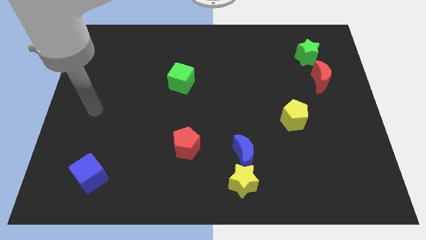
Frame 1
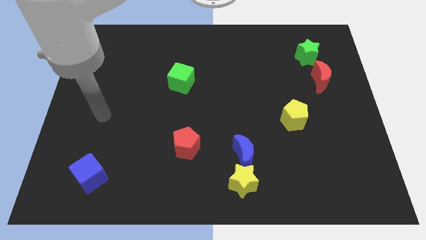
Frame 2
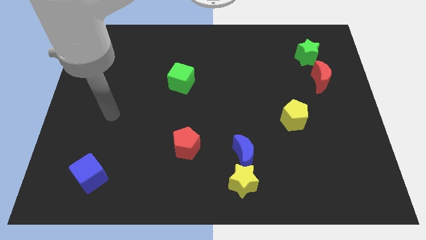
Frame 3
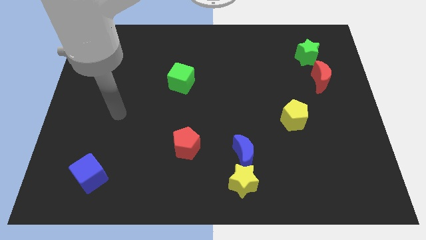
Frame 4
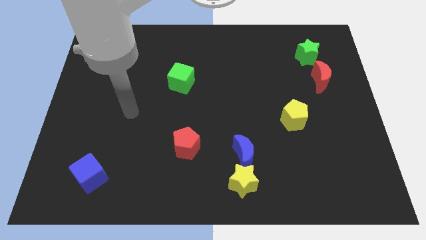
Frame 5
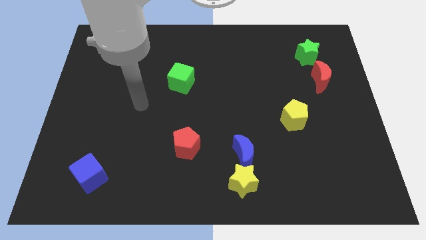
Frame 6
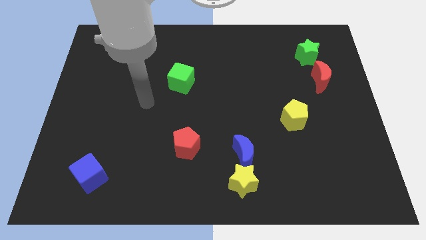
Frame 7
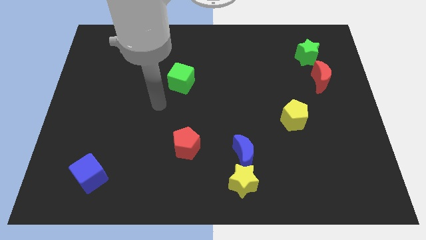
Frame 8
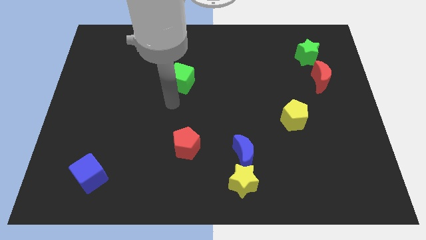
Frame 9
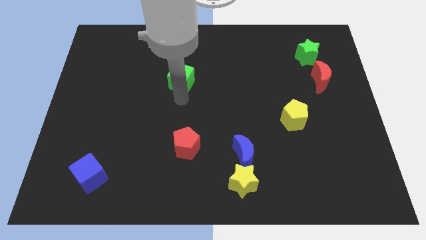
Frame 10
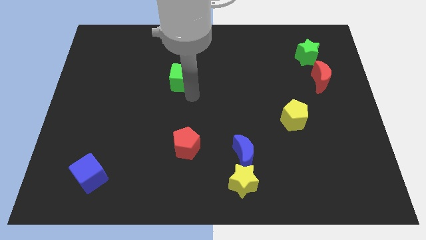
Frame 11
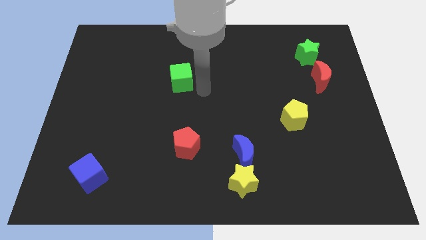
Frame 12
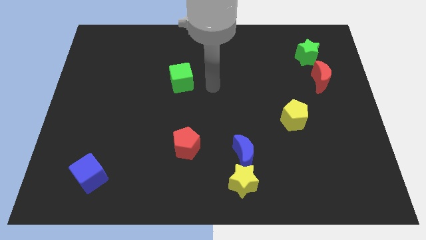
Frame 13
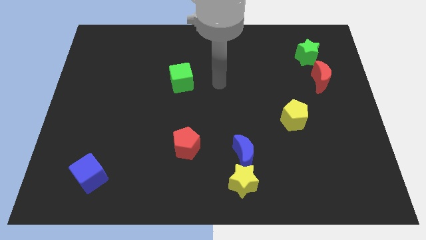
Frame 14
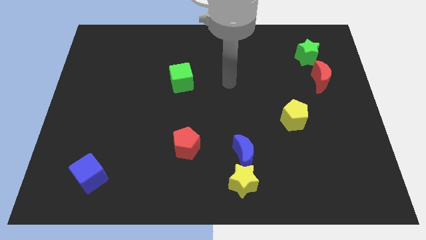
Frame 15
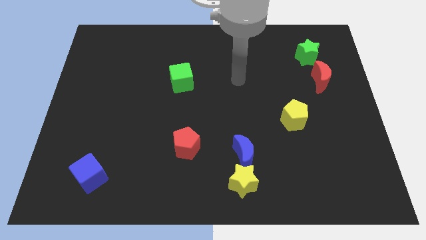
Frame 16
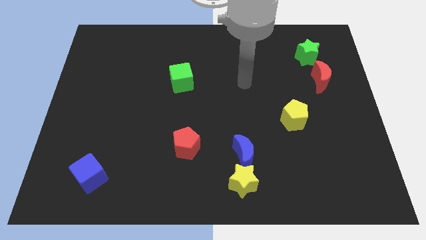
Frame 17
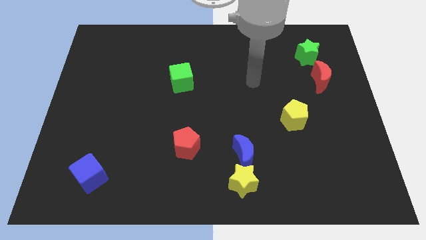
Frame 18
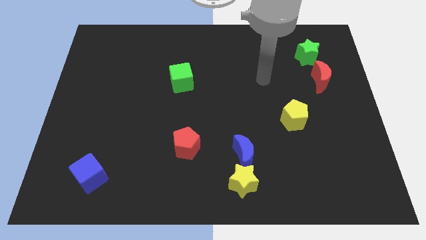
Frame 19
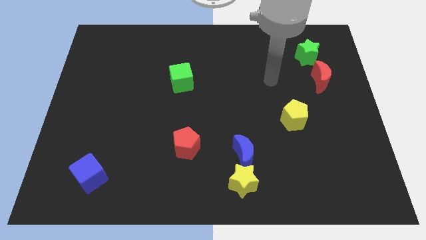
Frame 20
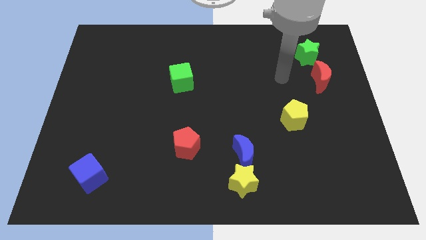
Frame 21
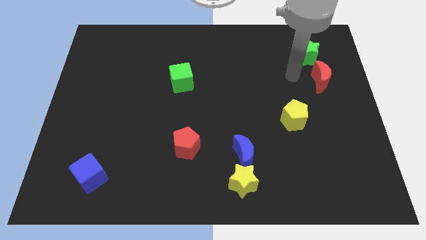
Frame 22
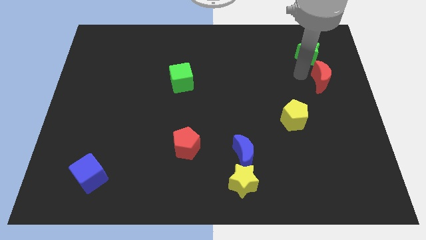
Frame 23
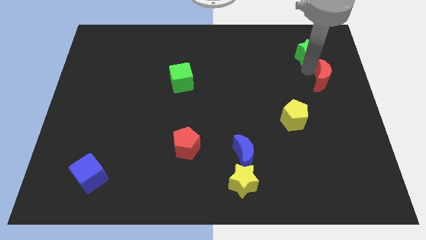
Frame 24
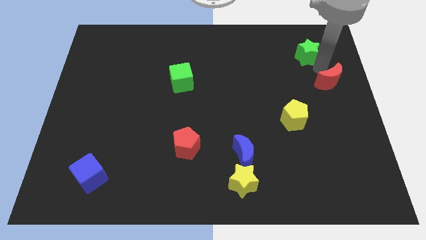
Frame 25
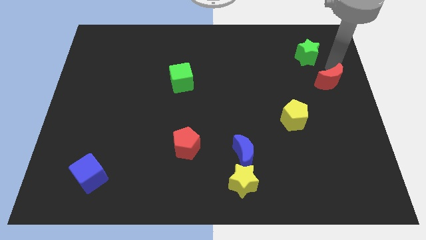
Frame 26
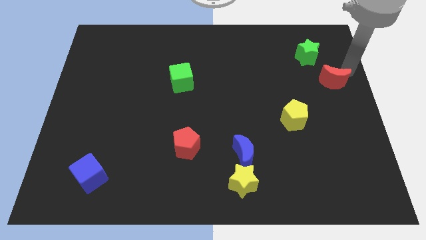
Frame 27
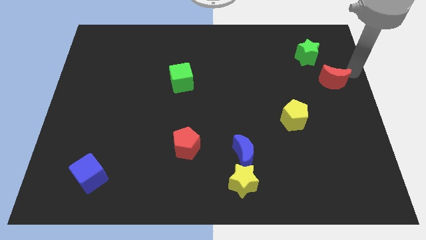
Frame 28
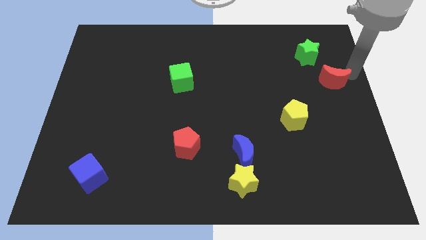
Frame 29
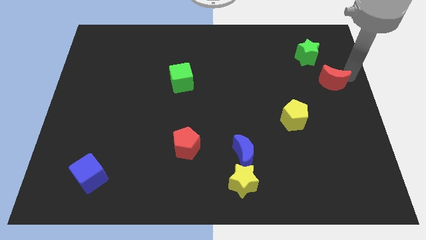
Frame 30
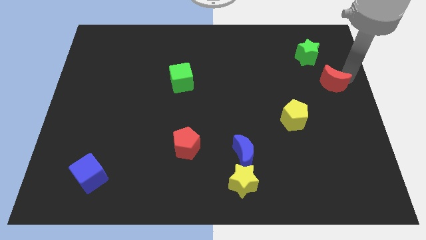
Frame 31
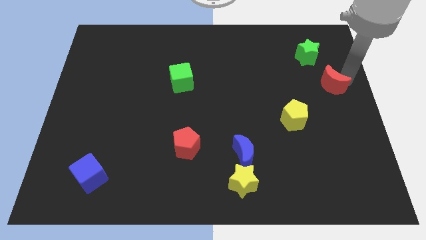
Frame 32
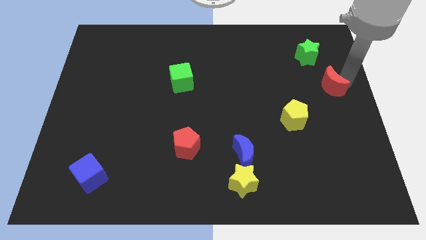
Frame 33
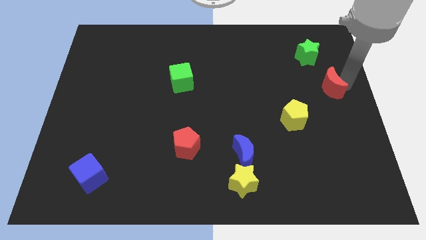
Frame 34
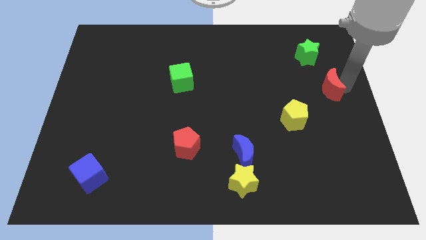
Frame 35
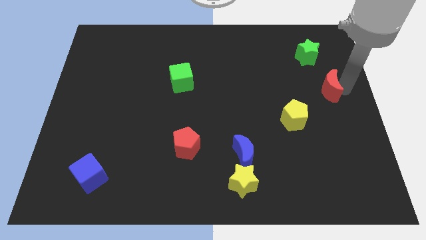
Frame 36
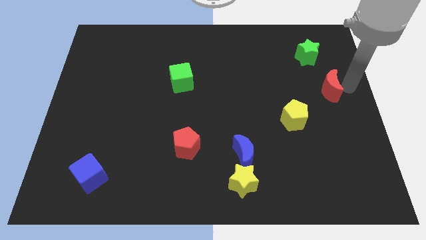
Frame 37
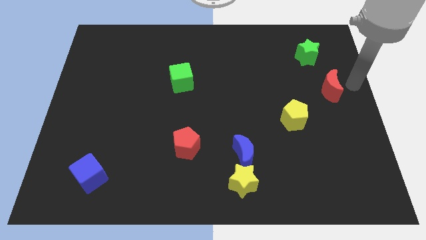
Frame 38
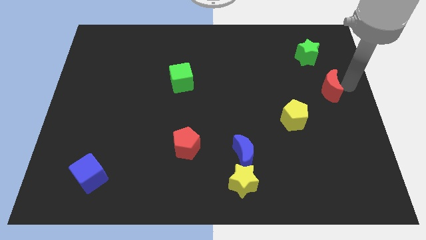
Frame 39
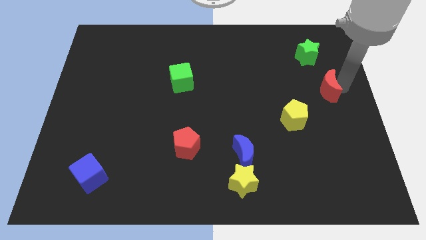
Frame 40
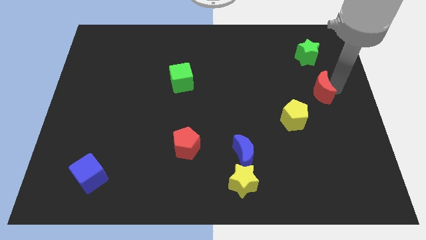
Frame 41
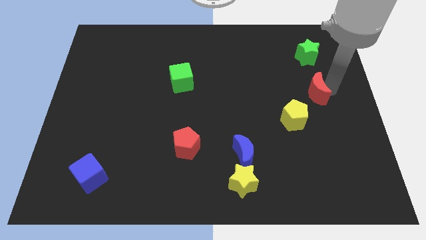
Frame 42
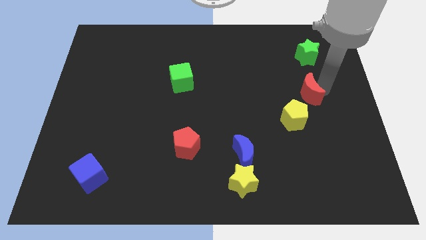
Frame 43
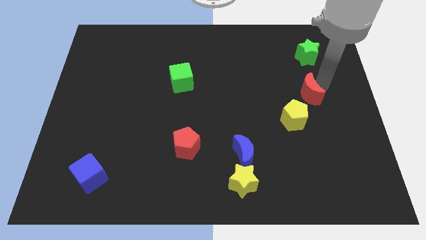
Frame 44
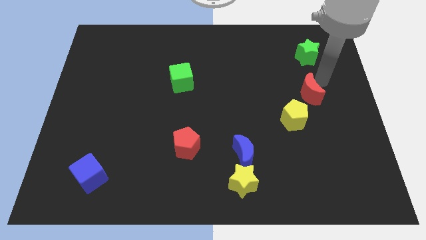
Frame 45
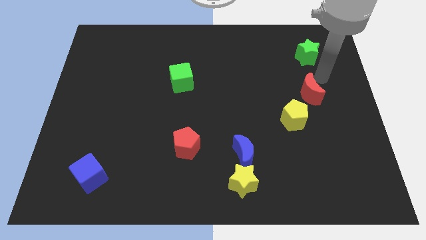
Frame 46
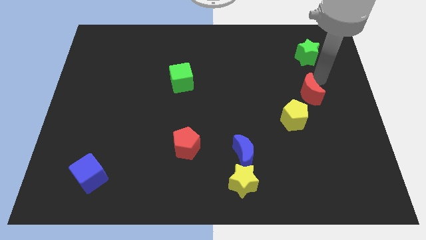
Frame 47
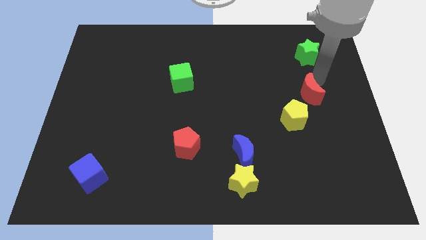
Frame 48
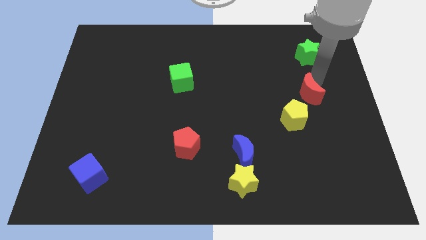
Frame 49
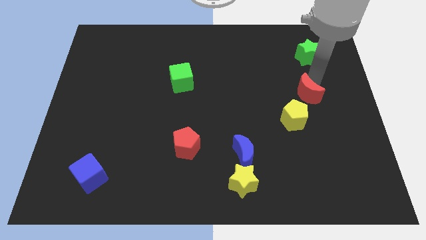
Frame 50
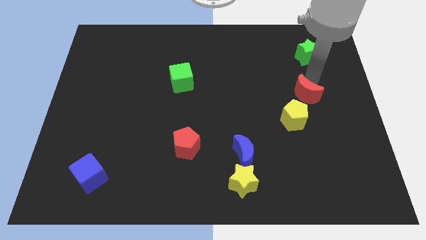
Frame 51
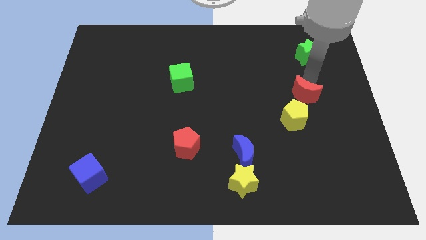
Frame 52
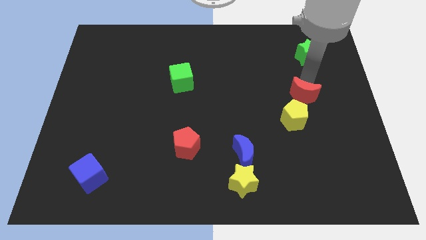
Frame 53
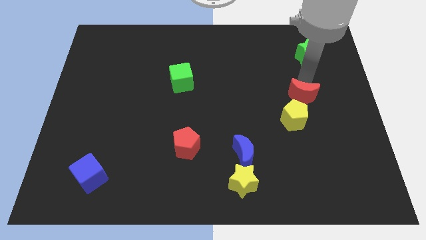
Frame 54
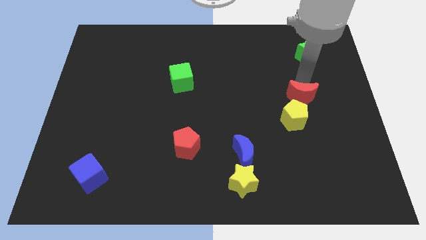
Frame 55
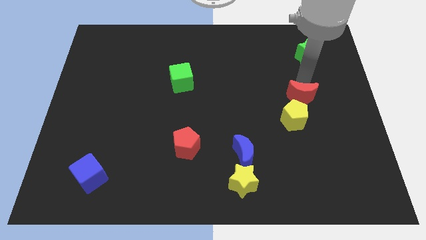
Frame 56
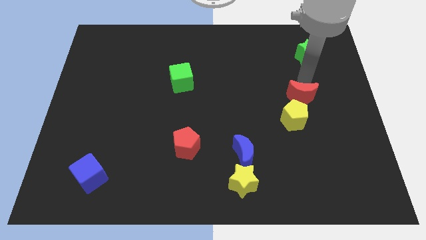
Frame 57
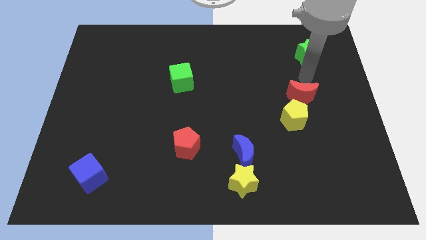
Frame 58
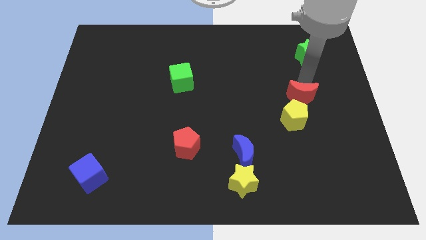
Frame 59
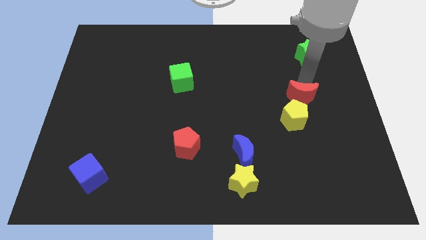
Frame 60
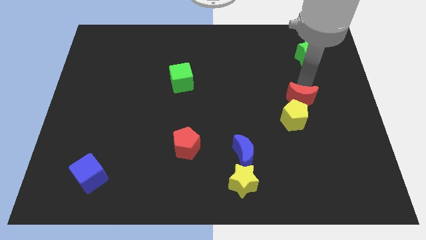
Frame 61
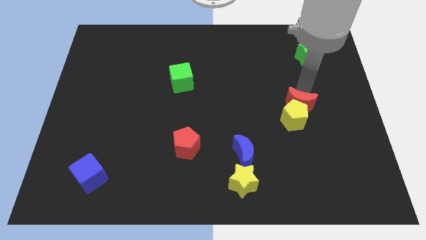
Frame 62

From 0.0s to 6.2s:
push the red moon to the yellow pentagon
